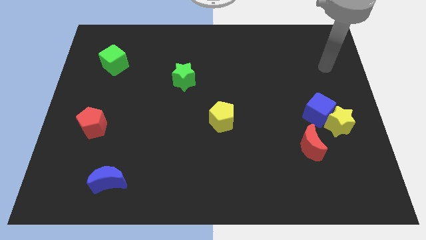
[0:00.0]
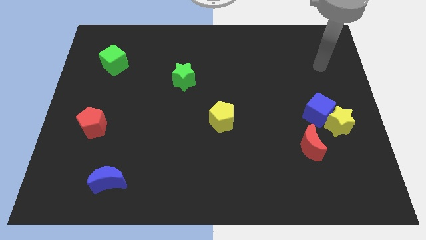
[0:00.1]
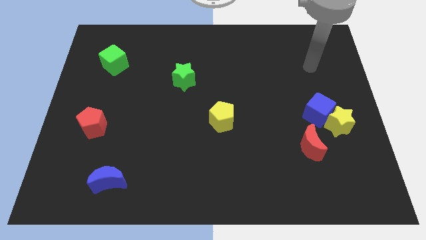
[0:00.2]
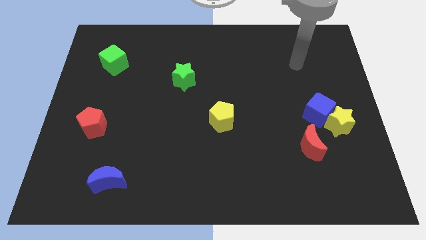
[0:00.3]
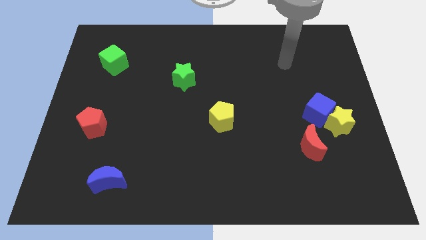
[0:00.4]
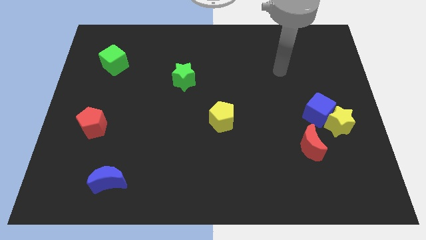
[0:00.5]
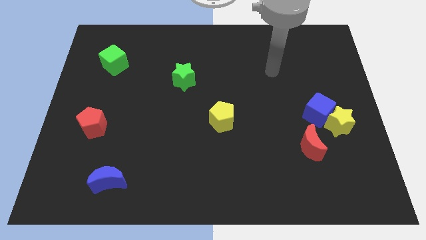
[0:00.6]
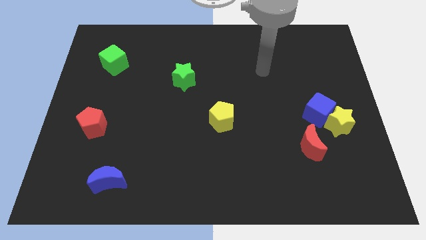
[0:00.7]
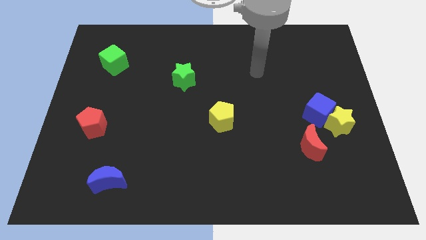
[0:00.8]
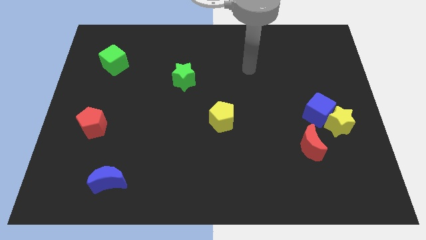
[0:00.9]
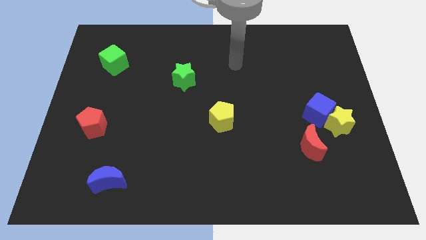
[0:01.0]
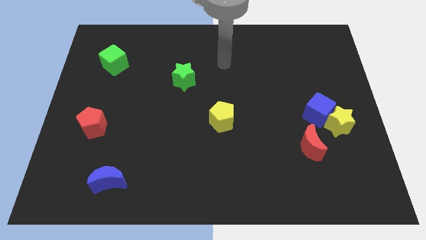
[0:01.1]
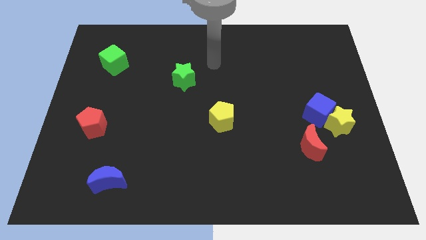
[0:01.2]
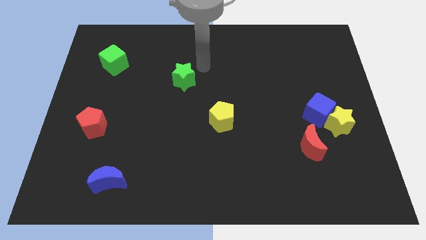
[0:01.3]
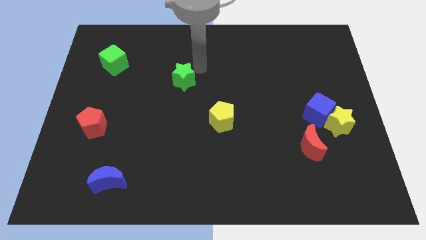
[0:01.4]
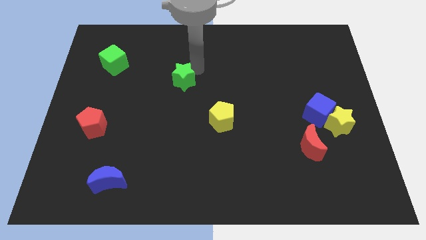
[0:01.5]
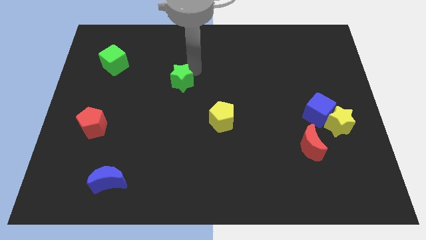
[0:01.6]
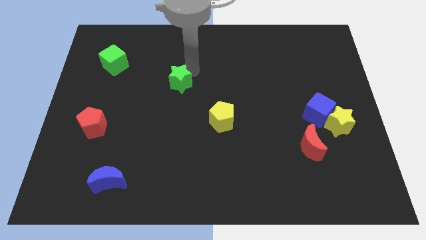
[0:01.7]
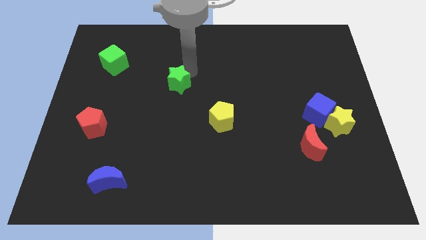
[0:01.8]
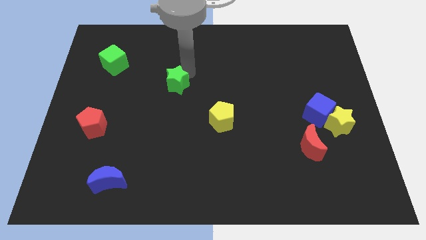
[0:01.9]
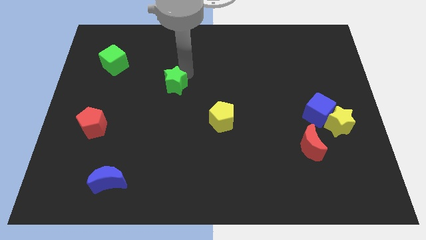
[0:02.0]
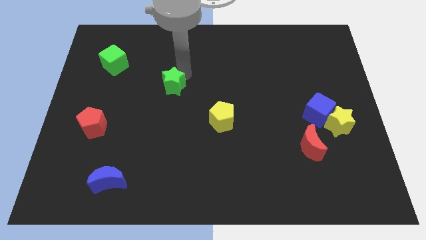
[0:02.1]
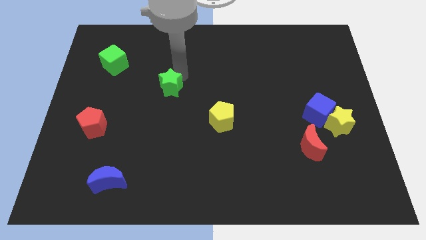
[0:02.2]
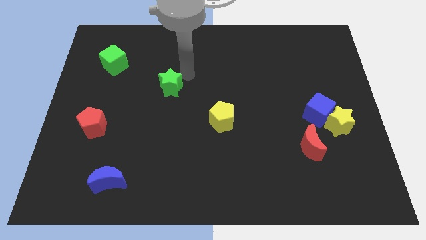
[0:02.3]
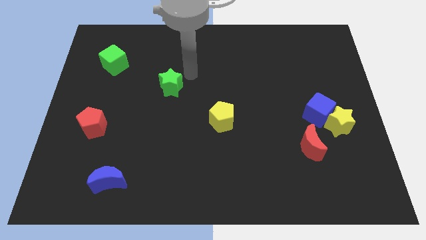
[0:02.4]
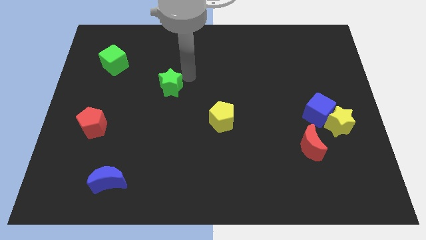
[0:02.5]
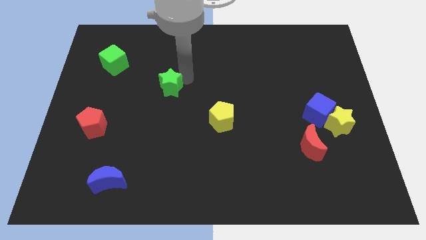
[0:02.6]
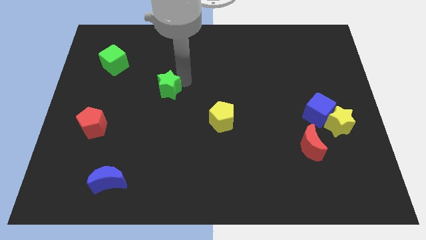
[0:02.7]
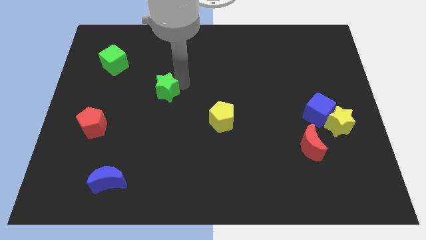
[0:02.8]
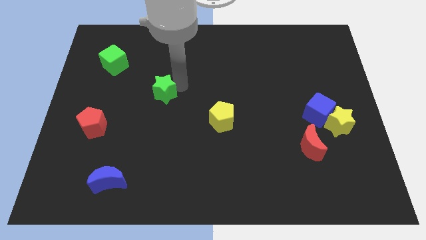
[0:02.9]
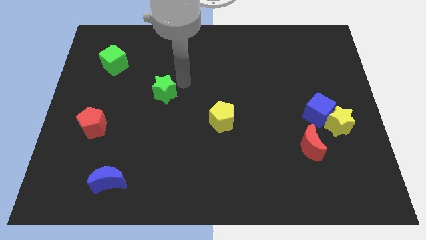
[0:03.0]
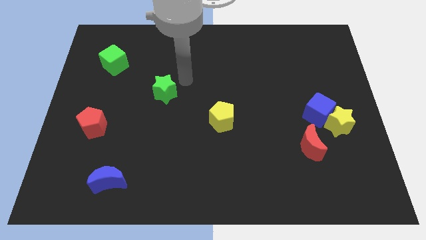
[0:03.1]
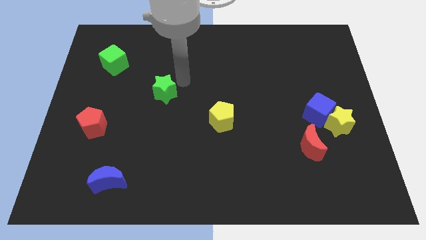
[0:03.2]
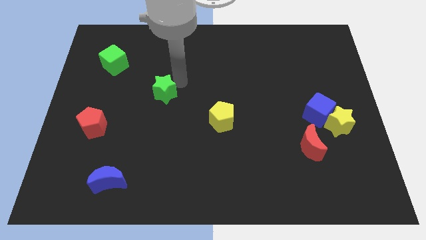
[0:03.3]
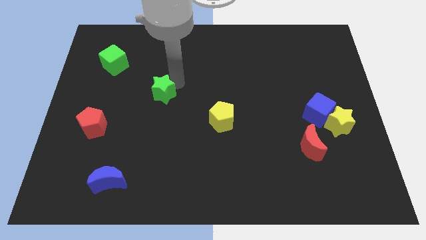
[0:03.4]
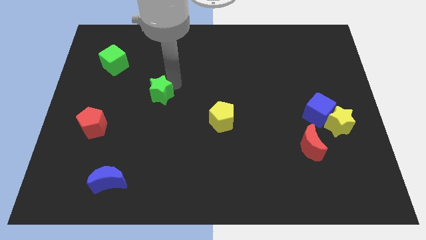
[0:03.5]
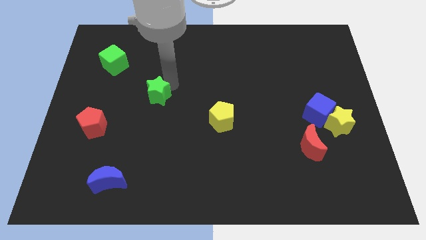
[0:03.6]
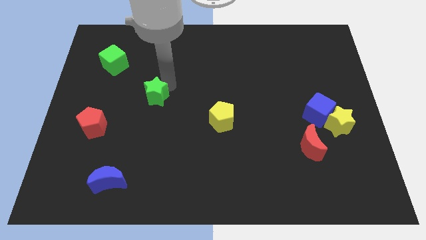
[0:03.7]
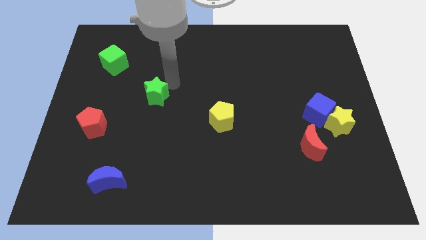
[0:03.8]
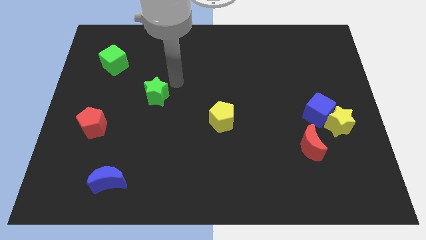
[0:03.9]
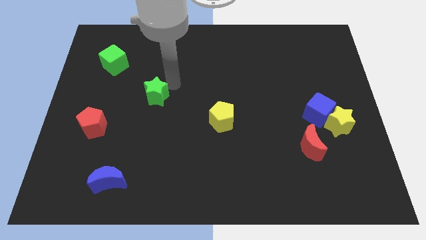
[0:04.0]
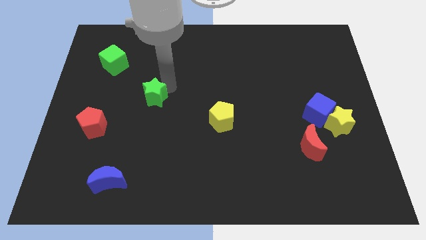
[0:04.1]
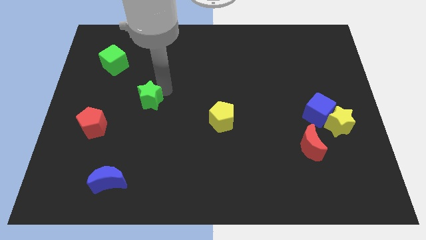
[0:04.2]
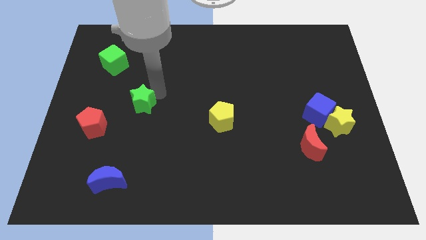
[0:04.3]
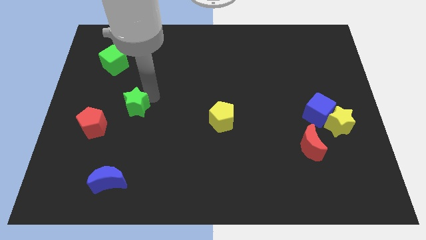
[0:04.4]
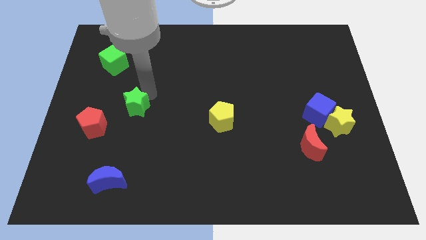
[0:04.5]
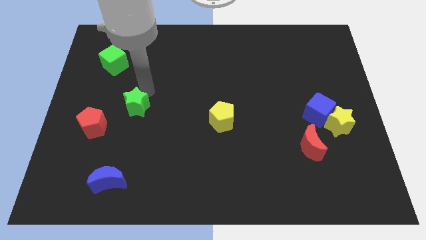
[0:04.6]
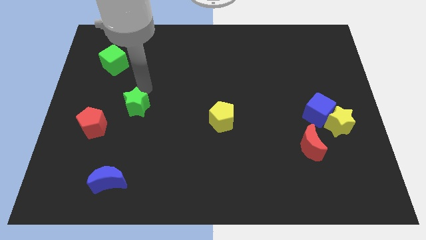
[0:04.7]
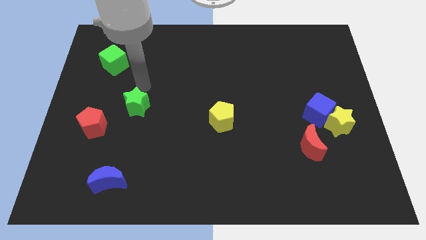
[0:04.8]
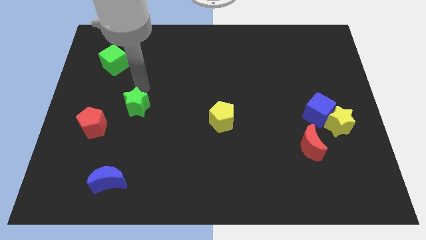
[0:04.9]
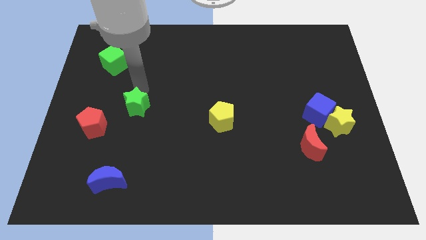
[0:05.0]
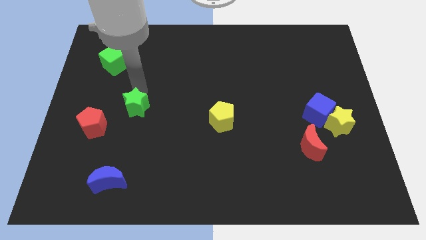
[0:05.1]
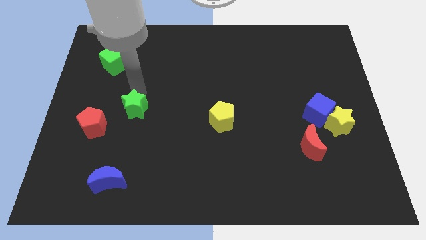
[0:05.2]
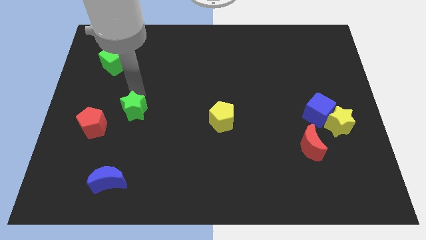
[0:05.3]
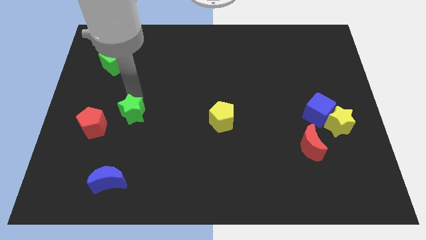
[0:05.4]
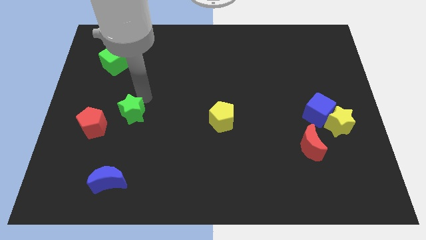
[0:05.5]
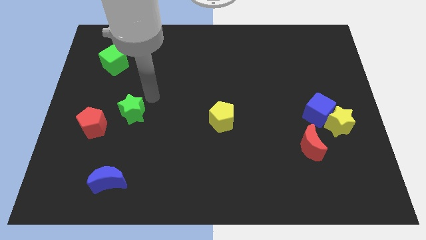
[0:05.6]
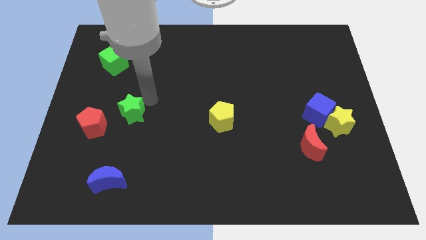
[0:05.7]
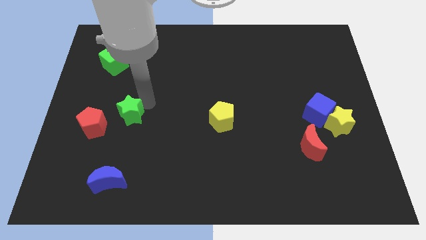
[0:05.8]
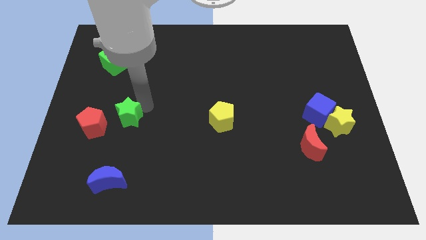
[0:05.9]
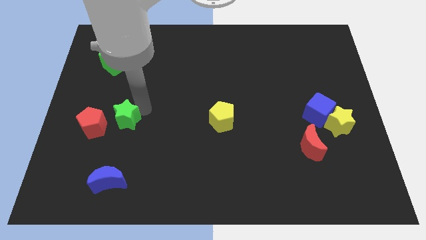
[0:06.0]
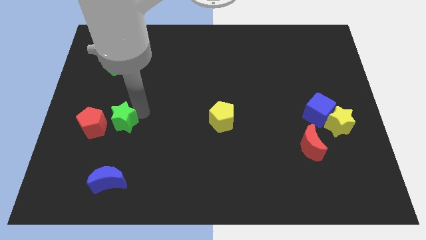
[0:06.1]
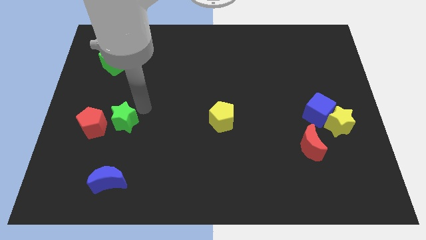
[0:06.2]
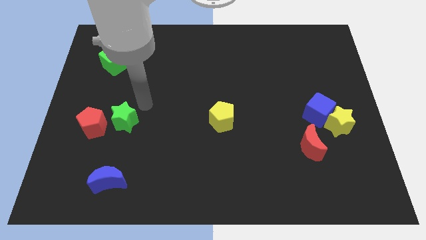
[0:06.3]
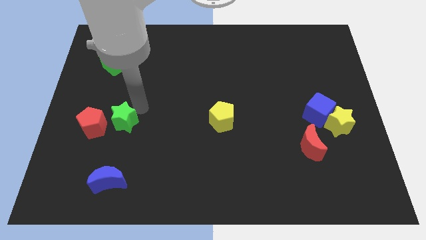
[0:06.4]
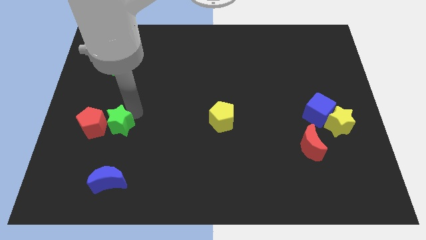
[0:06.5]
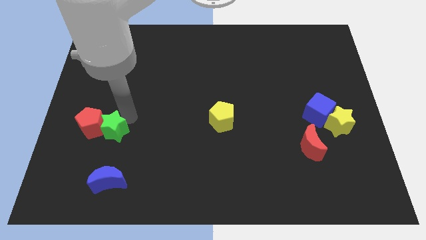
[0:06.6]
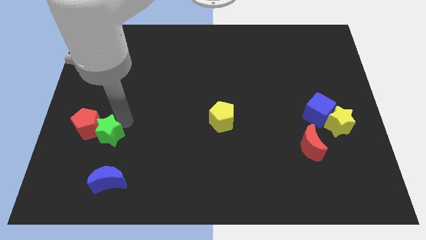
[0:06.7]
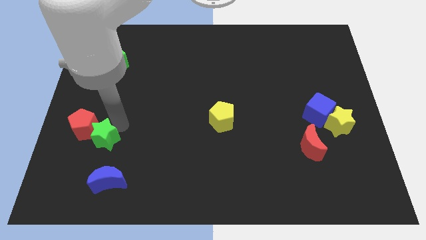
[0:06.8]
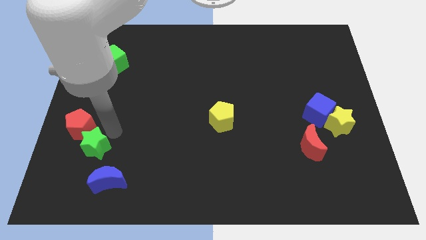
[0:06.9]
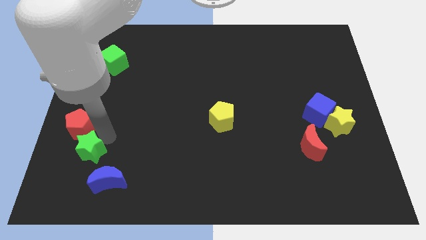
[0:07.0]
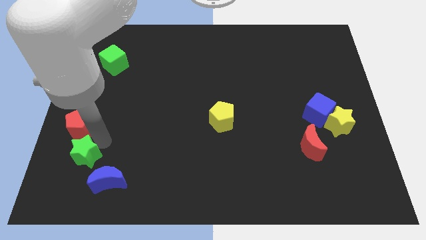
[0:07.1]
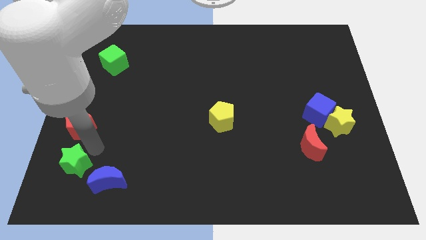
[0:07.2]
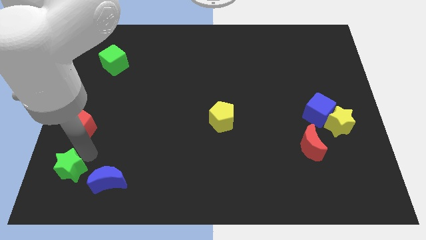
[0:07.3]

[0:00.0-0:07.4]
push the green star to the bottom left of the board
